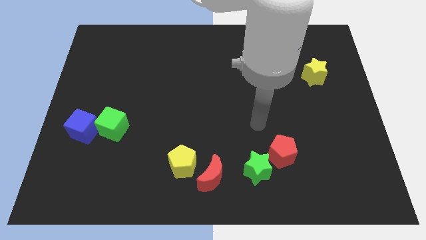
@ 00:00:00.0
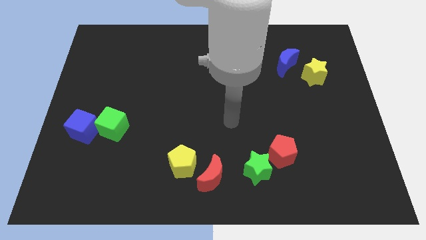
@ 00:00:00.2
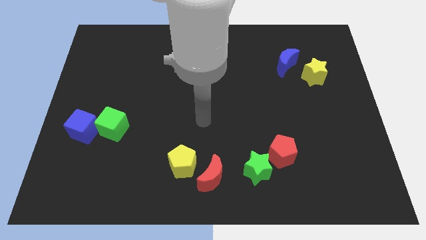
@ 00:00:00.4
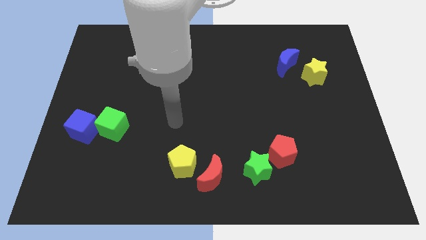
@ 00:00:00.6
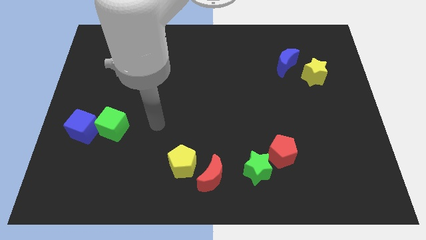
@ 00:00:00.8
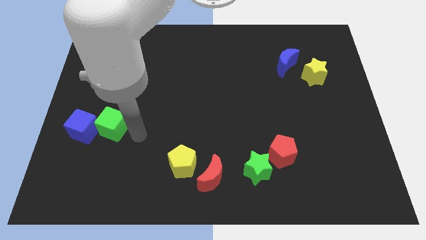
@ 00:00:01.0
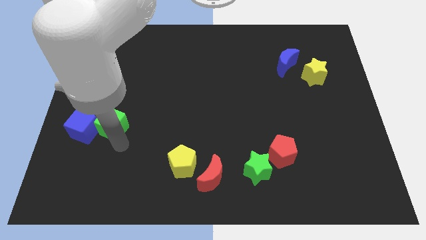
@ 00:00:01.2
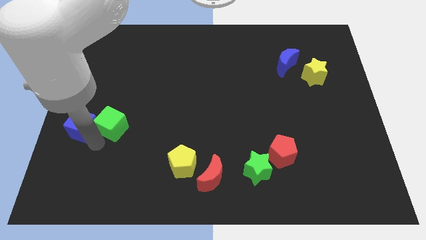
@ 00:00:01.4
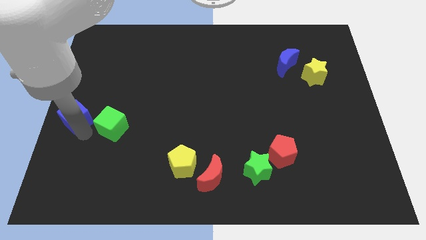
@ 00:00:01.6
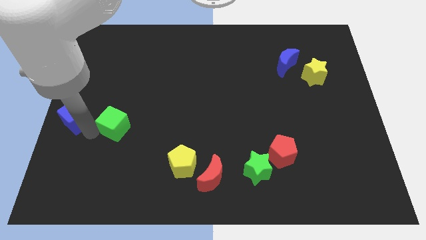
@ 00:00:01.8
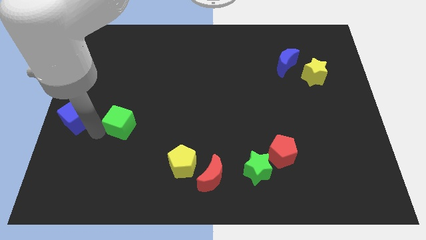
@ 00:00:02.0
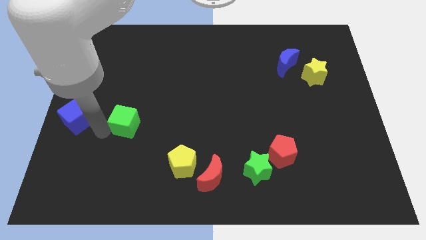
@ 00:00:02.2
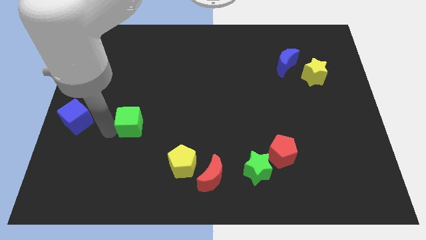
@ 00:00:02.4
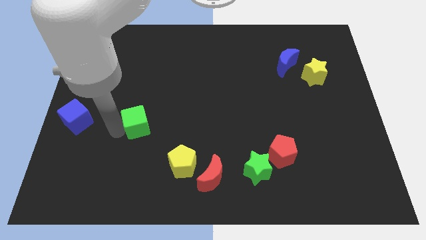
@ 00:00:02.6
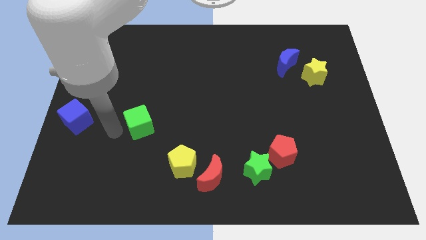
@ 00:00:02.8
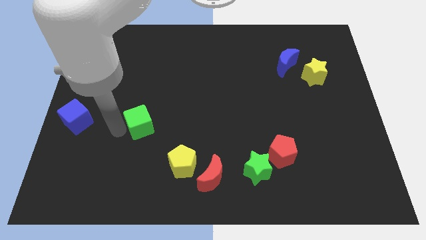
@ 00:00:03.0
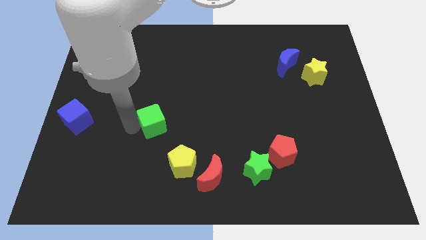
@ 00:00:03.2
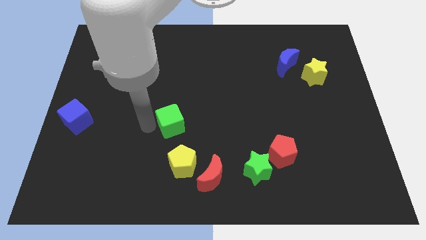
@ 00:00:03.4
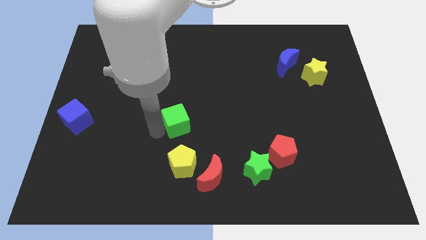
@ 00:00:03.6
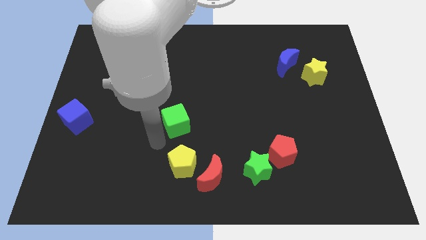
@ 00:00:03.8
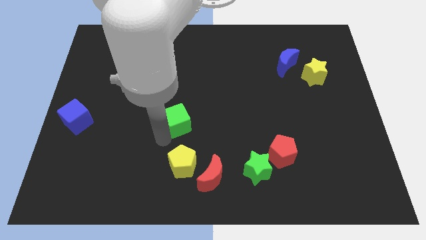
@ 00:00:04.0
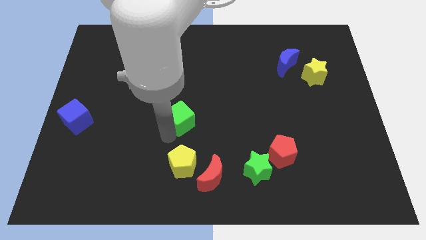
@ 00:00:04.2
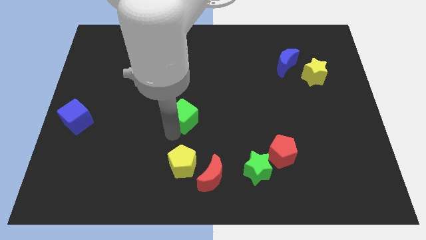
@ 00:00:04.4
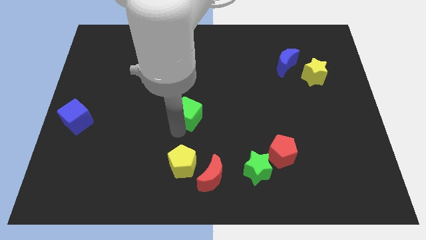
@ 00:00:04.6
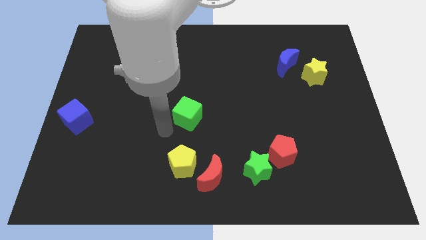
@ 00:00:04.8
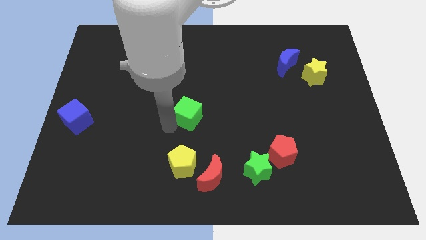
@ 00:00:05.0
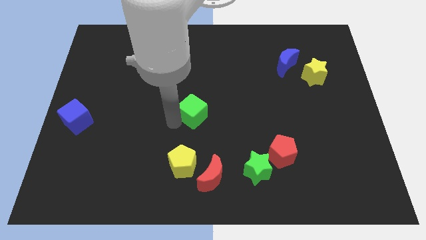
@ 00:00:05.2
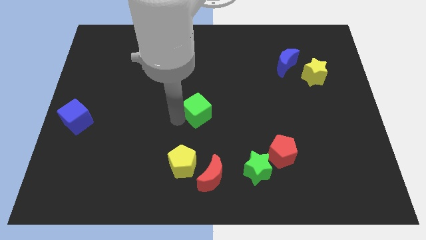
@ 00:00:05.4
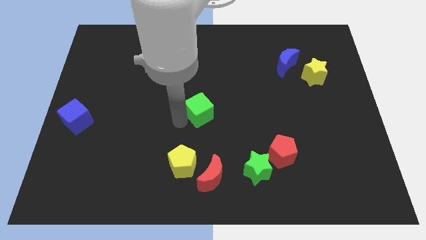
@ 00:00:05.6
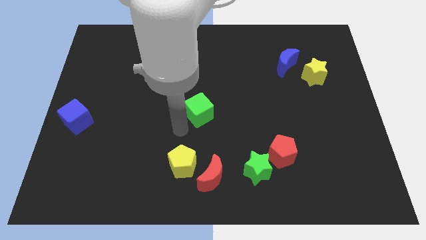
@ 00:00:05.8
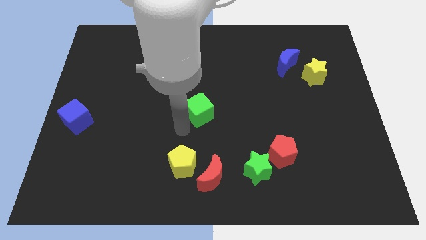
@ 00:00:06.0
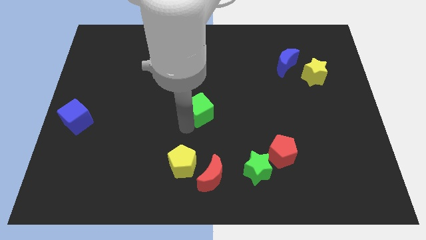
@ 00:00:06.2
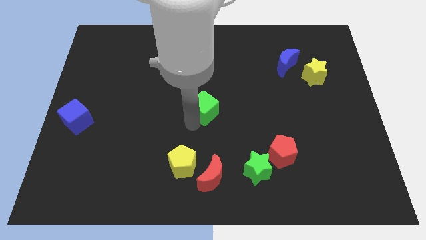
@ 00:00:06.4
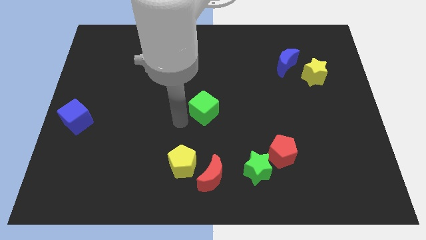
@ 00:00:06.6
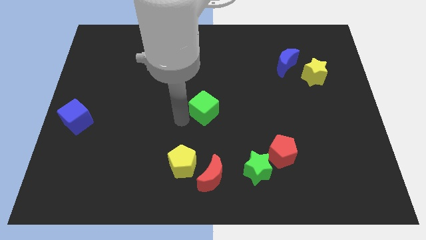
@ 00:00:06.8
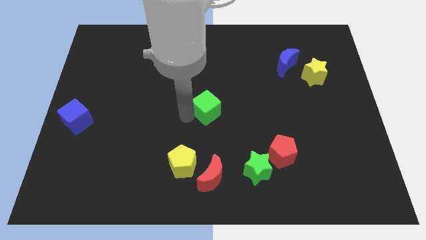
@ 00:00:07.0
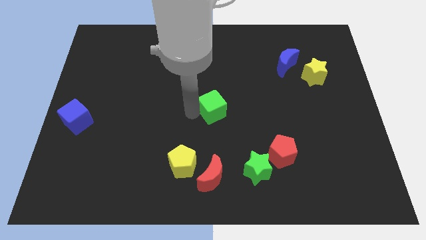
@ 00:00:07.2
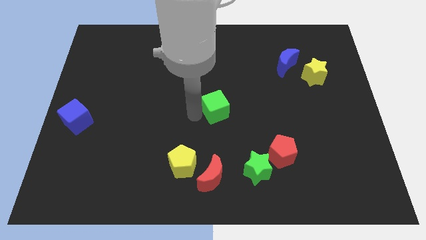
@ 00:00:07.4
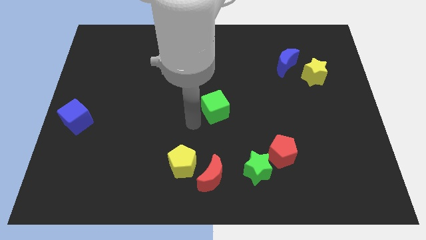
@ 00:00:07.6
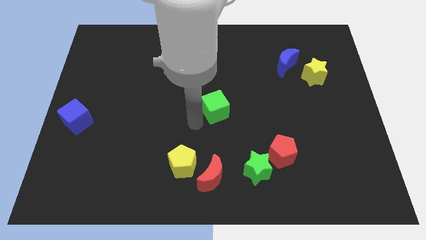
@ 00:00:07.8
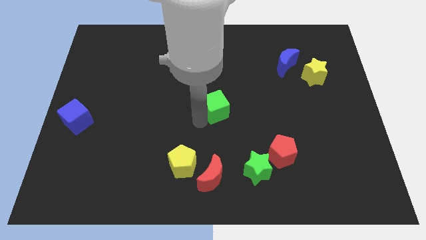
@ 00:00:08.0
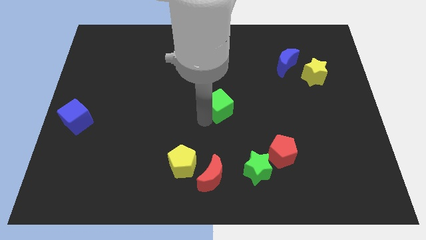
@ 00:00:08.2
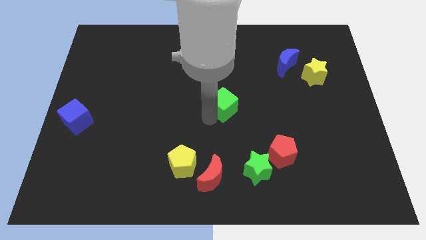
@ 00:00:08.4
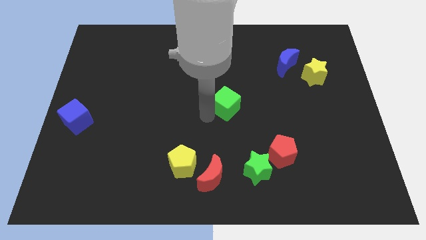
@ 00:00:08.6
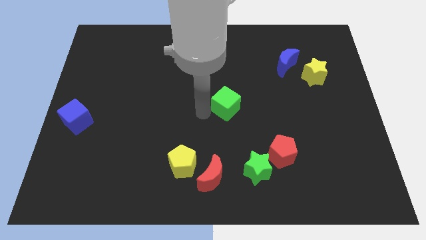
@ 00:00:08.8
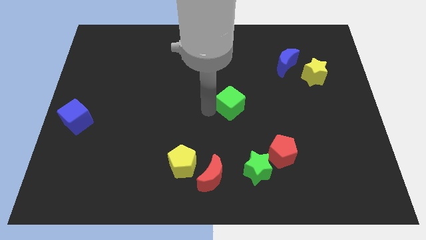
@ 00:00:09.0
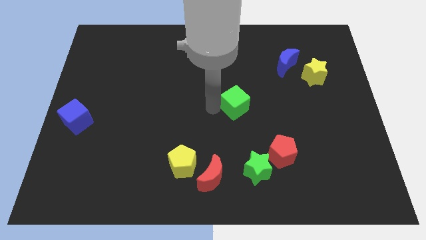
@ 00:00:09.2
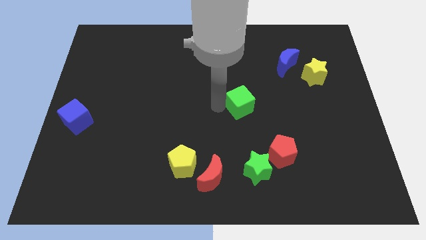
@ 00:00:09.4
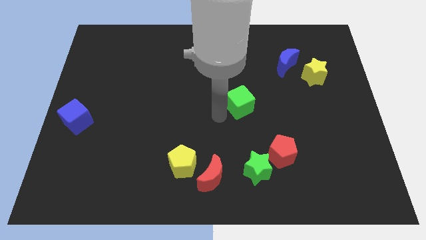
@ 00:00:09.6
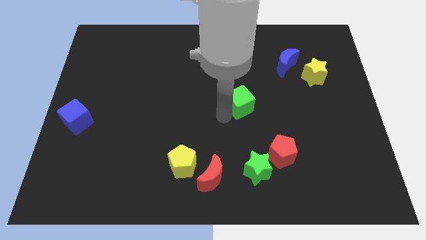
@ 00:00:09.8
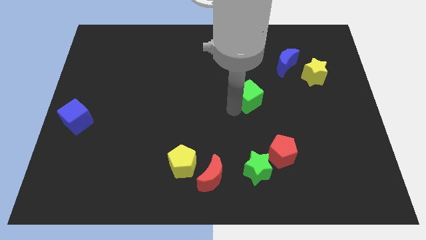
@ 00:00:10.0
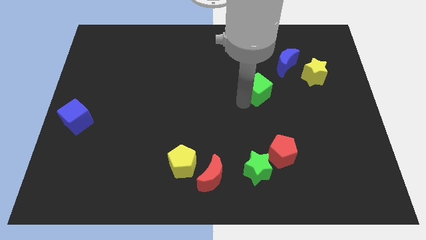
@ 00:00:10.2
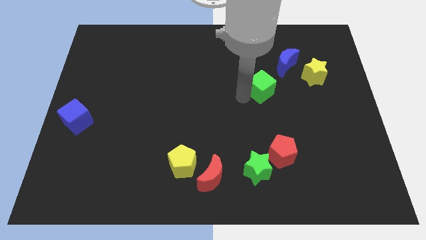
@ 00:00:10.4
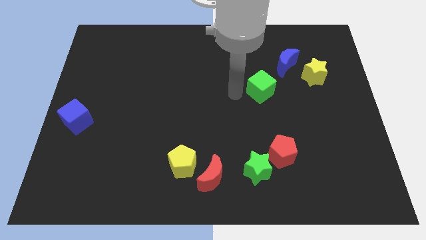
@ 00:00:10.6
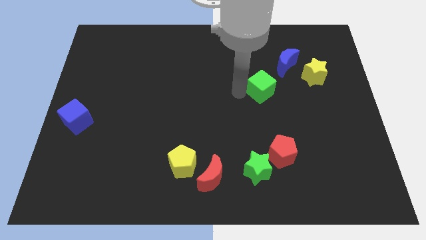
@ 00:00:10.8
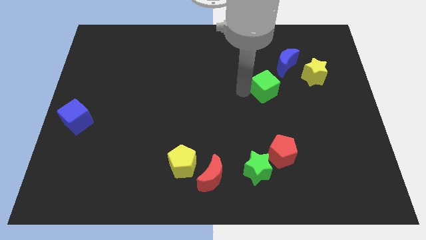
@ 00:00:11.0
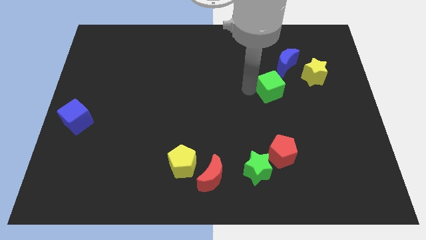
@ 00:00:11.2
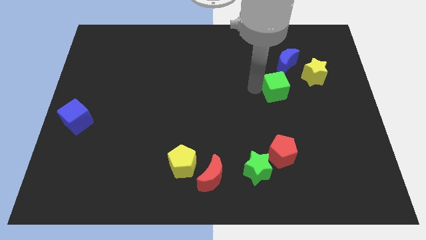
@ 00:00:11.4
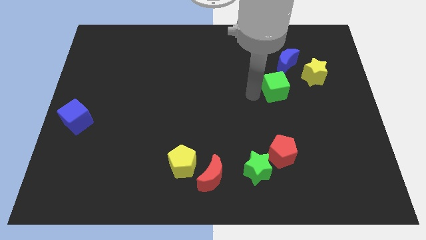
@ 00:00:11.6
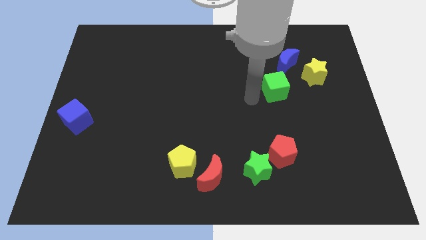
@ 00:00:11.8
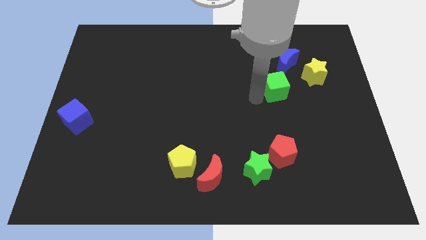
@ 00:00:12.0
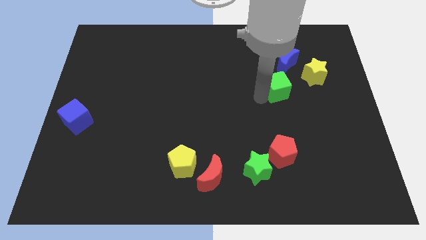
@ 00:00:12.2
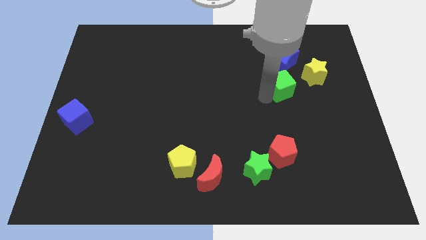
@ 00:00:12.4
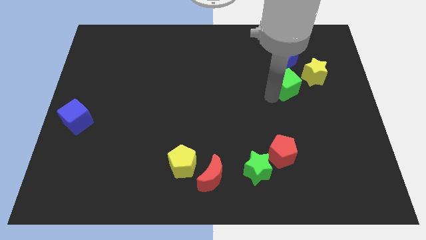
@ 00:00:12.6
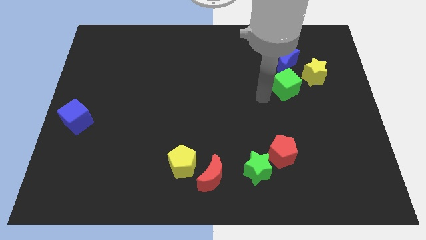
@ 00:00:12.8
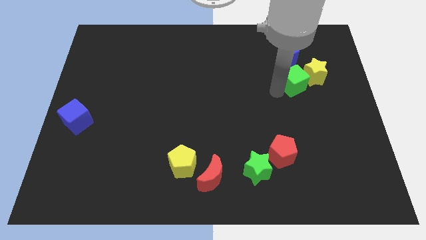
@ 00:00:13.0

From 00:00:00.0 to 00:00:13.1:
put the green cube to the yellow star

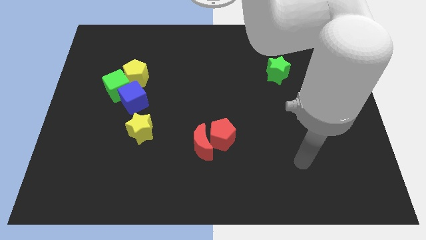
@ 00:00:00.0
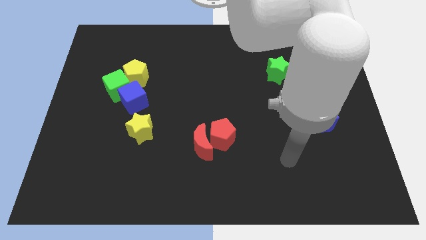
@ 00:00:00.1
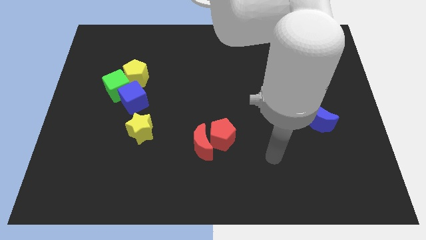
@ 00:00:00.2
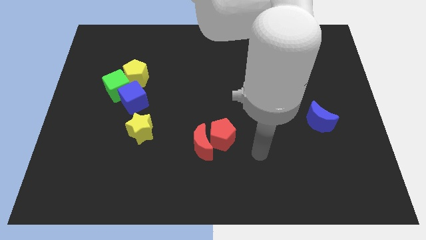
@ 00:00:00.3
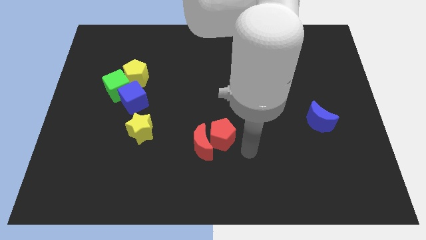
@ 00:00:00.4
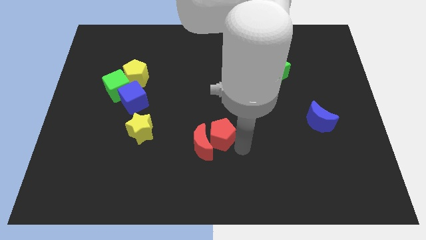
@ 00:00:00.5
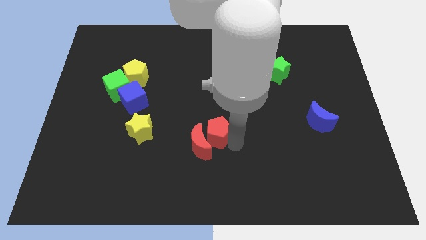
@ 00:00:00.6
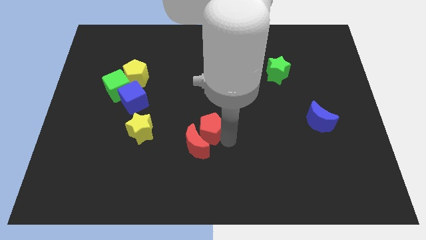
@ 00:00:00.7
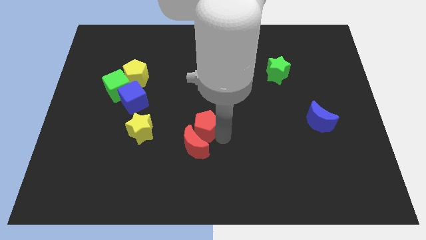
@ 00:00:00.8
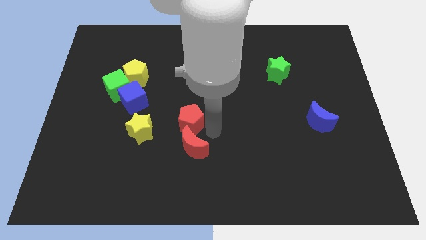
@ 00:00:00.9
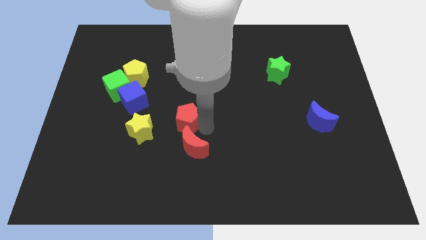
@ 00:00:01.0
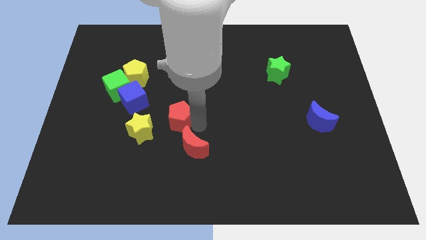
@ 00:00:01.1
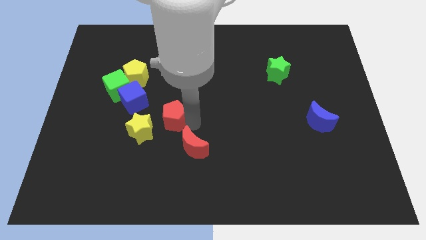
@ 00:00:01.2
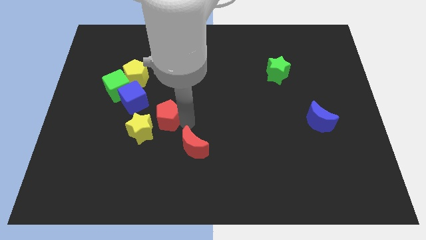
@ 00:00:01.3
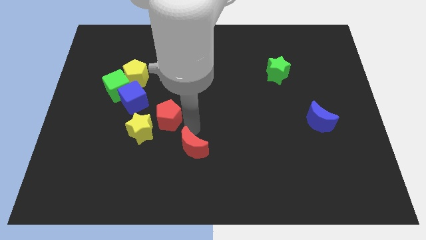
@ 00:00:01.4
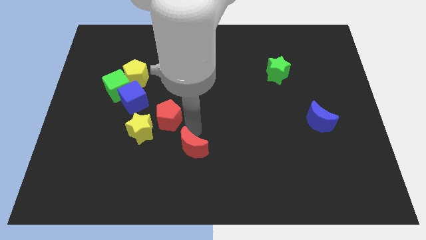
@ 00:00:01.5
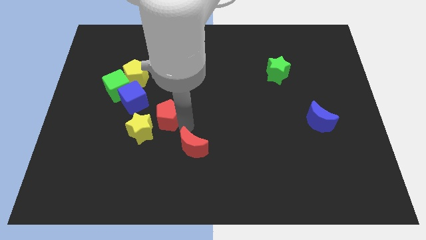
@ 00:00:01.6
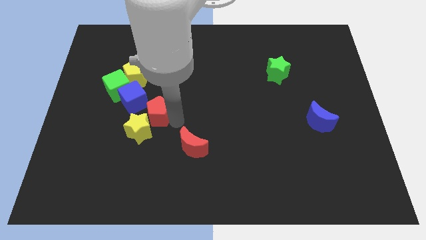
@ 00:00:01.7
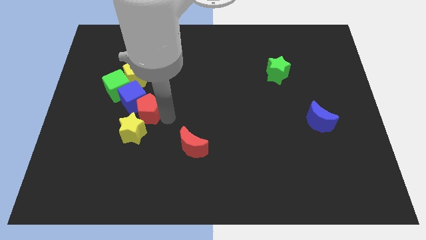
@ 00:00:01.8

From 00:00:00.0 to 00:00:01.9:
move the red pentagon towards the blue cube
